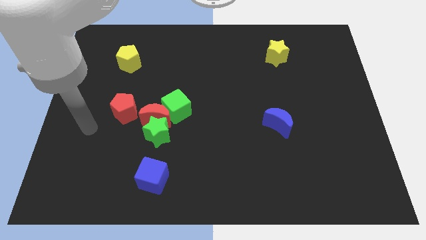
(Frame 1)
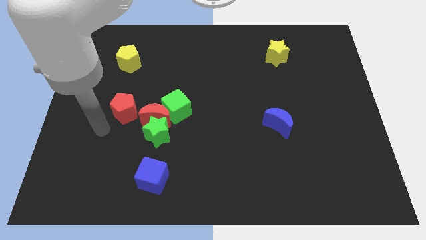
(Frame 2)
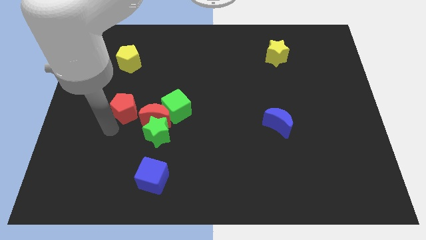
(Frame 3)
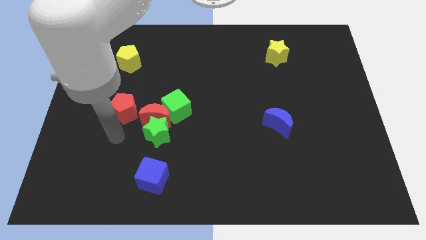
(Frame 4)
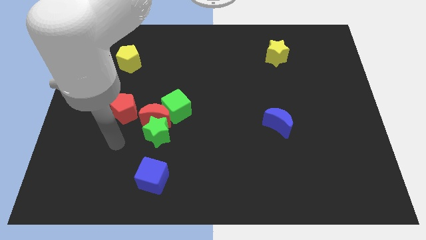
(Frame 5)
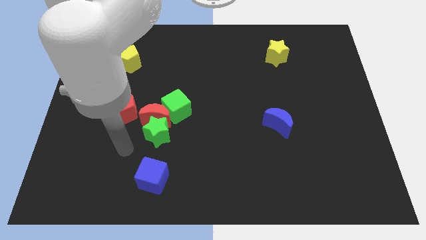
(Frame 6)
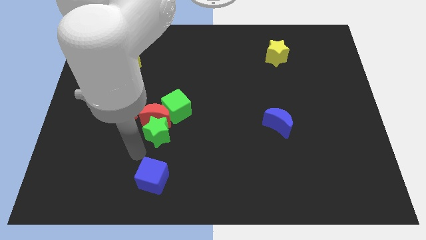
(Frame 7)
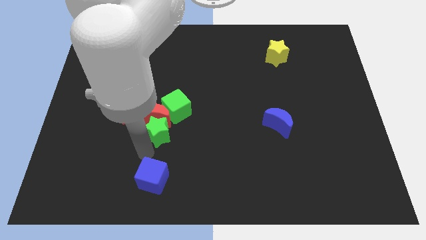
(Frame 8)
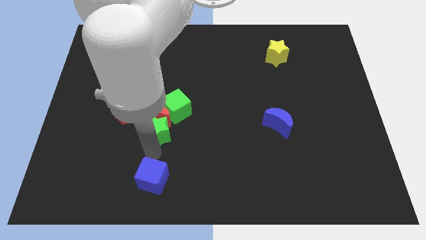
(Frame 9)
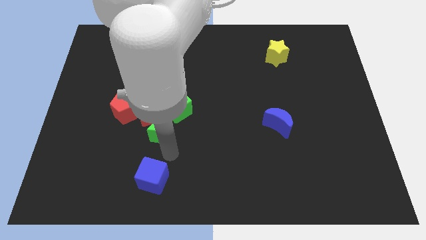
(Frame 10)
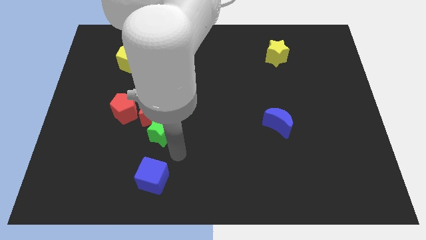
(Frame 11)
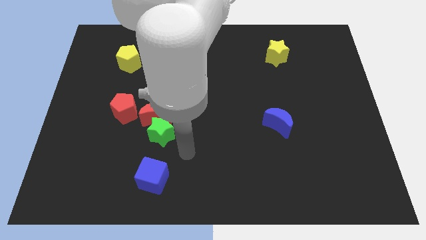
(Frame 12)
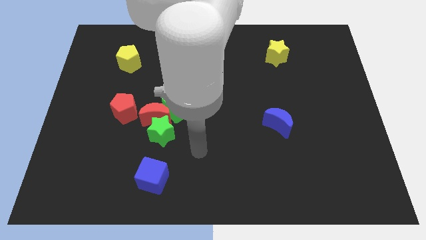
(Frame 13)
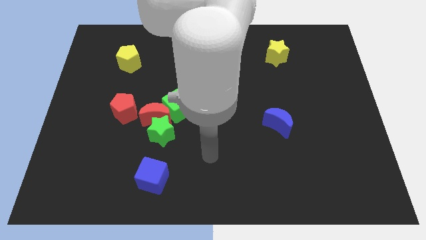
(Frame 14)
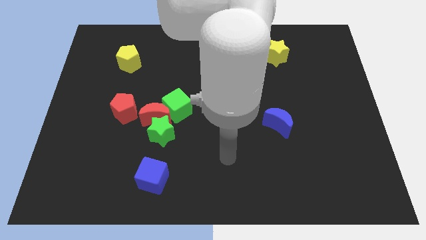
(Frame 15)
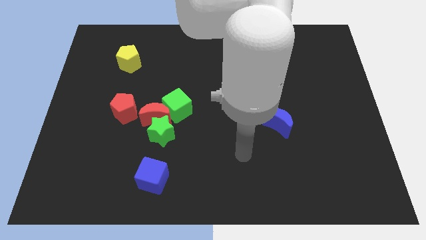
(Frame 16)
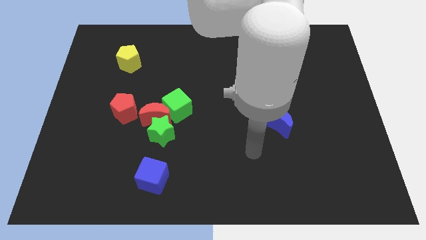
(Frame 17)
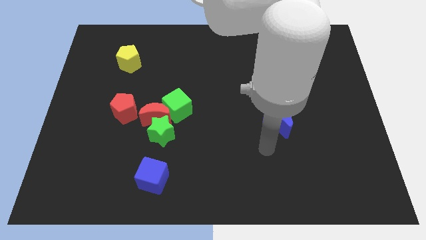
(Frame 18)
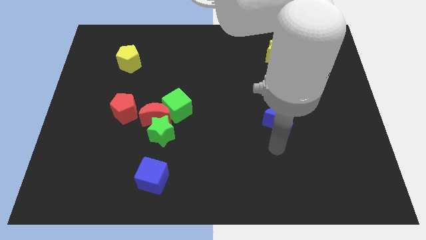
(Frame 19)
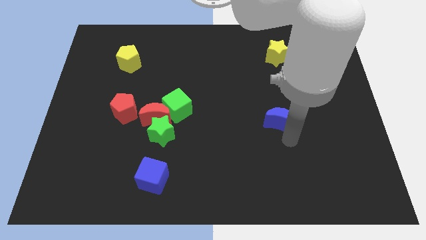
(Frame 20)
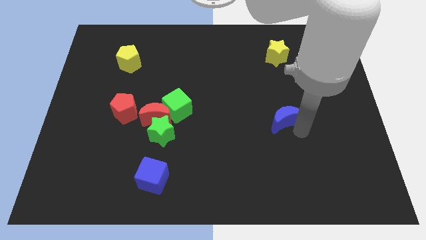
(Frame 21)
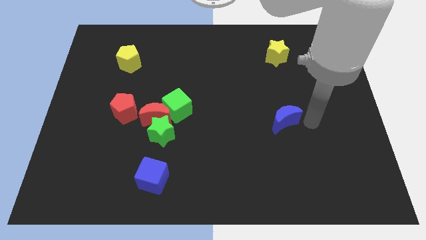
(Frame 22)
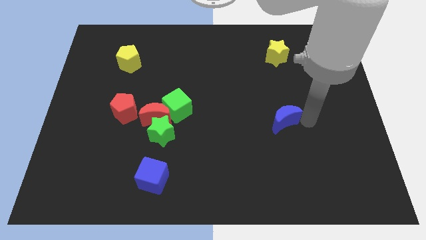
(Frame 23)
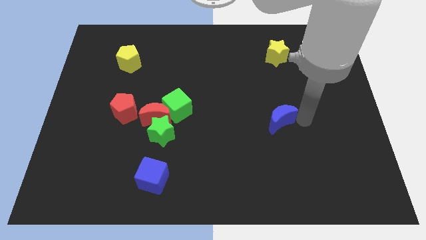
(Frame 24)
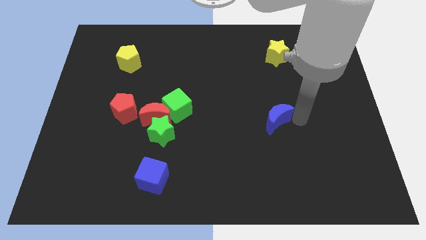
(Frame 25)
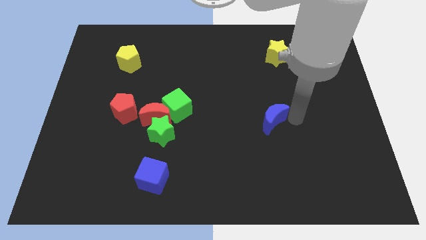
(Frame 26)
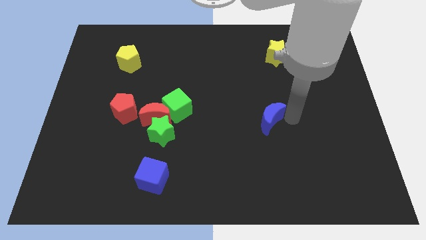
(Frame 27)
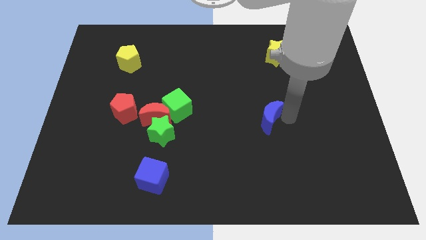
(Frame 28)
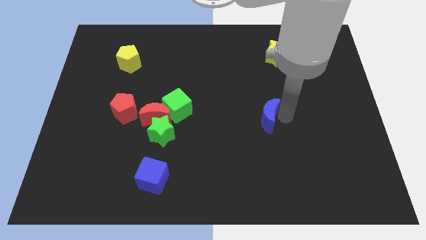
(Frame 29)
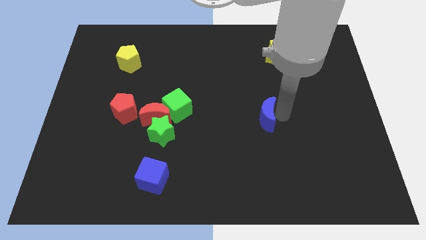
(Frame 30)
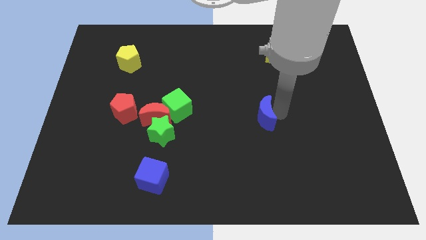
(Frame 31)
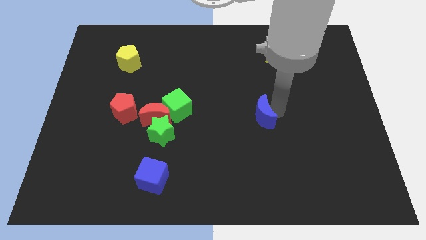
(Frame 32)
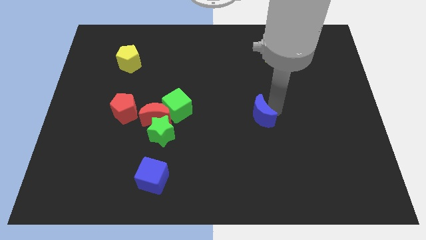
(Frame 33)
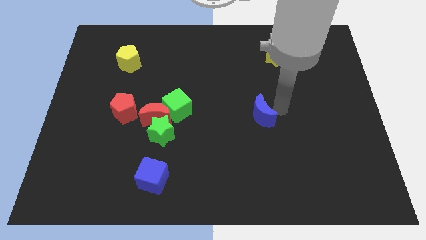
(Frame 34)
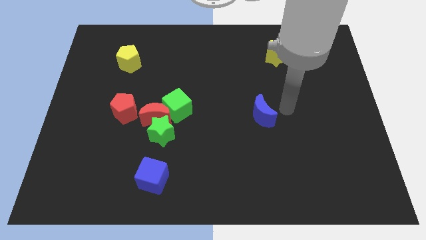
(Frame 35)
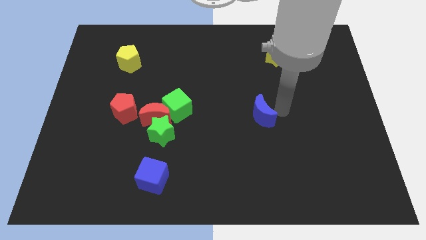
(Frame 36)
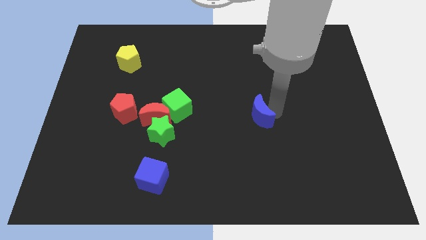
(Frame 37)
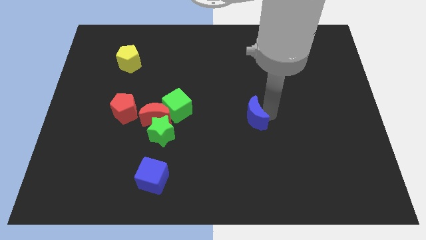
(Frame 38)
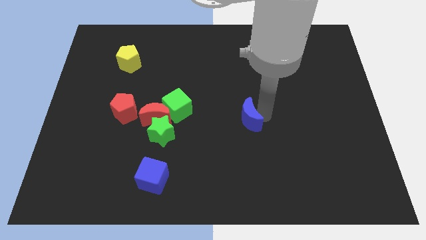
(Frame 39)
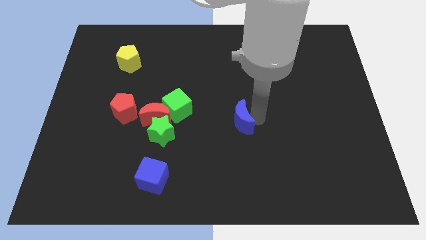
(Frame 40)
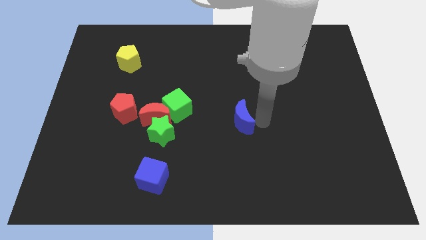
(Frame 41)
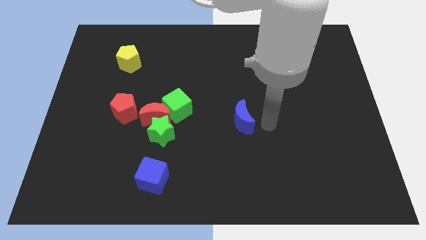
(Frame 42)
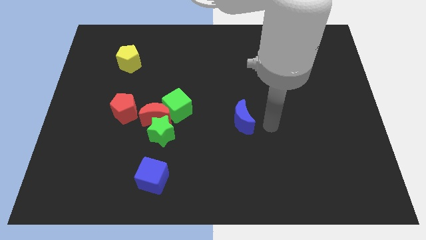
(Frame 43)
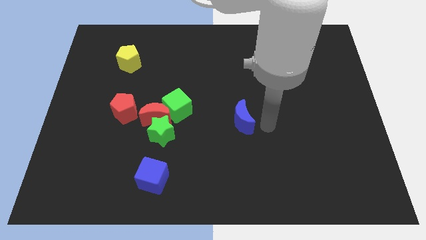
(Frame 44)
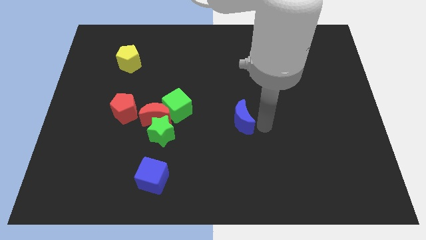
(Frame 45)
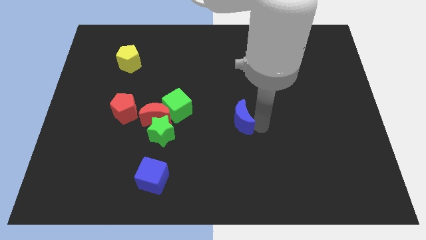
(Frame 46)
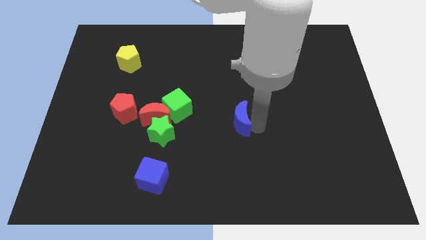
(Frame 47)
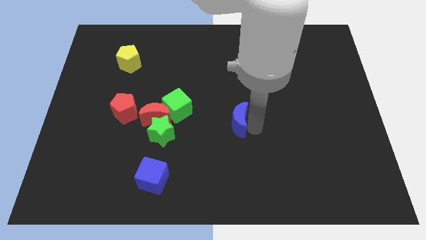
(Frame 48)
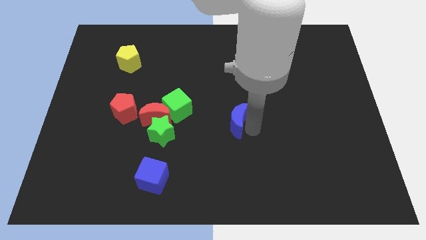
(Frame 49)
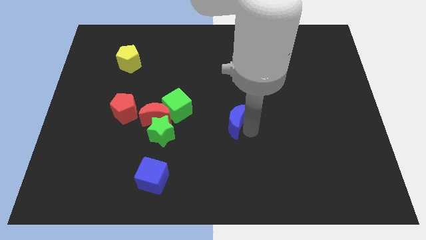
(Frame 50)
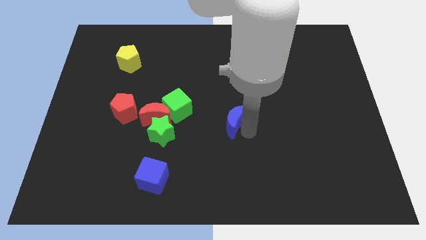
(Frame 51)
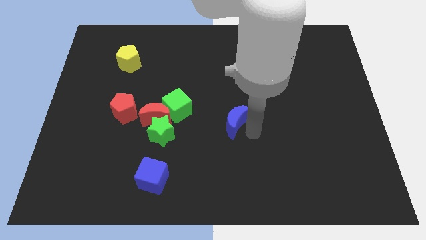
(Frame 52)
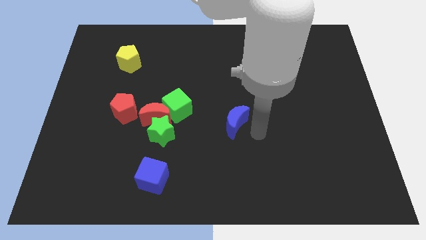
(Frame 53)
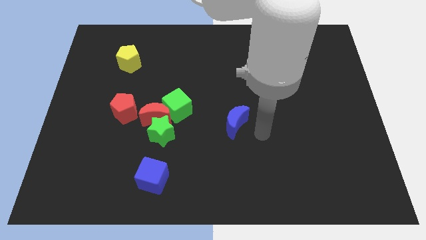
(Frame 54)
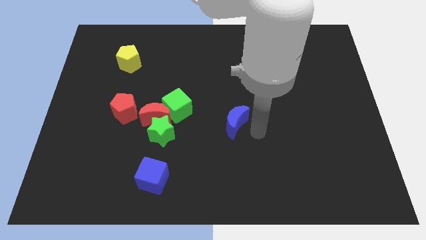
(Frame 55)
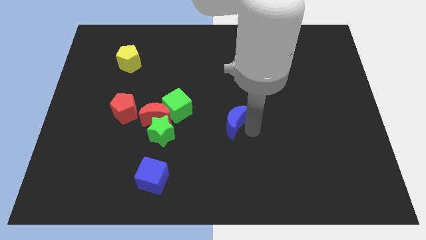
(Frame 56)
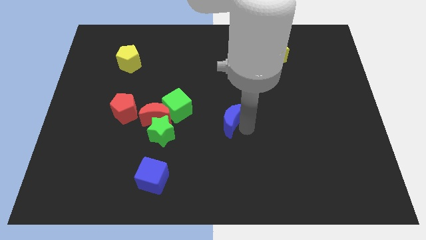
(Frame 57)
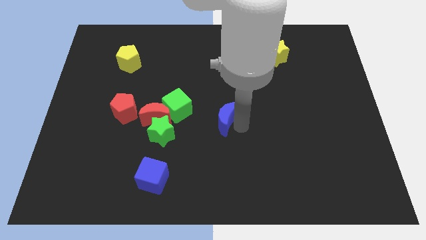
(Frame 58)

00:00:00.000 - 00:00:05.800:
move the blue moon to the right side of the red moon

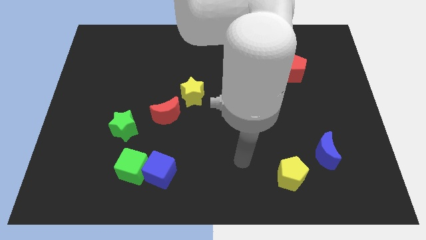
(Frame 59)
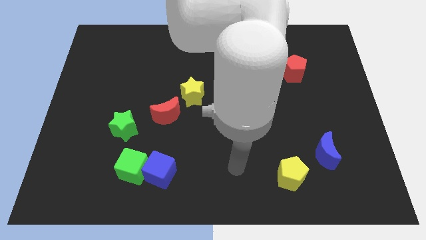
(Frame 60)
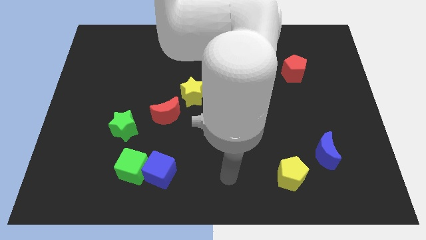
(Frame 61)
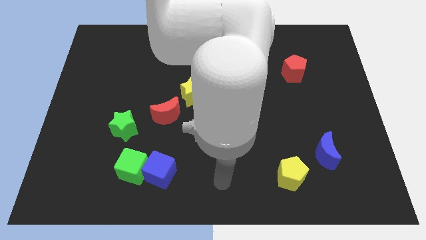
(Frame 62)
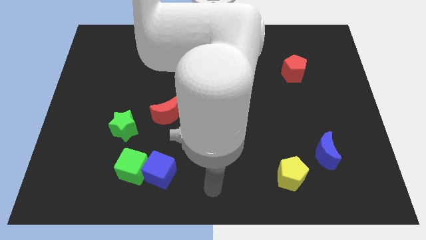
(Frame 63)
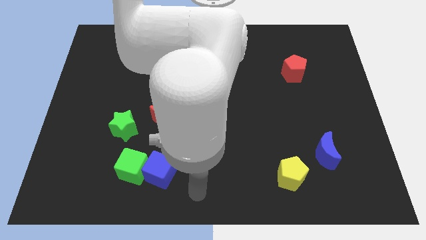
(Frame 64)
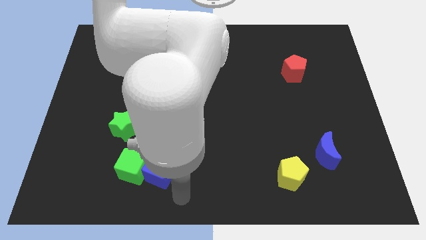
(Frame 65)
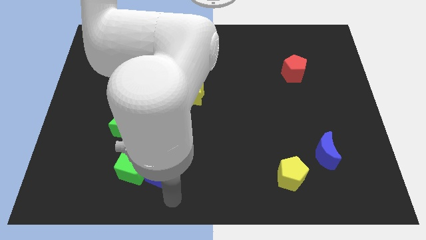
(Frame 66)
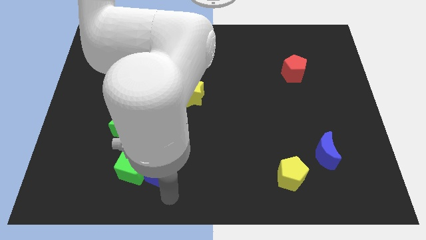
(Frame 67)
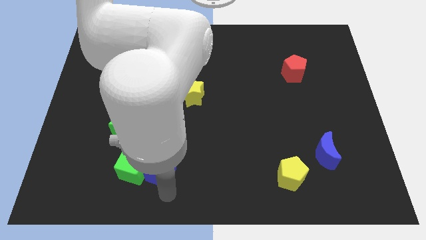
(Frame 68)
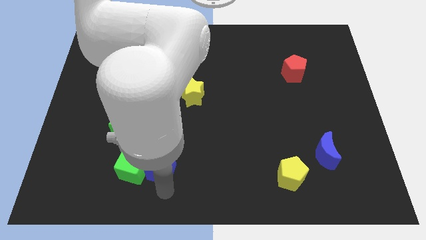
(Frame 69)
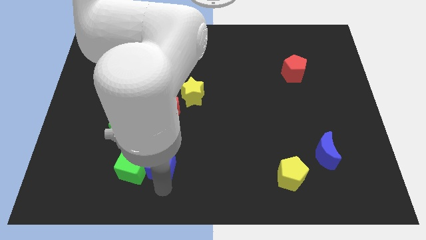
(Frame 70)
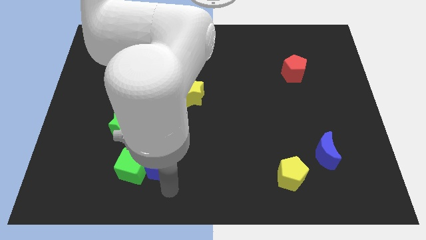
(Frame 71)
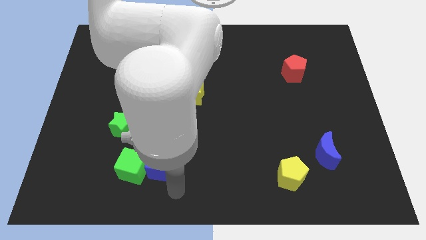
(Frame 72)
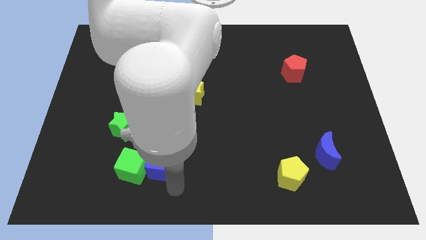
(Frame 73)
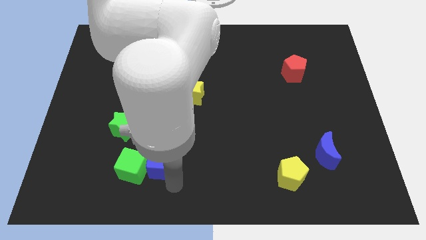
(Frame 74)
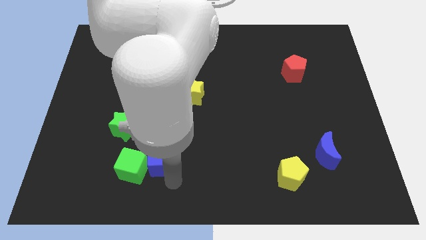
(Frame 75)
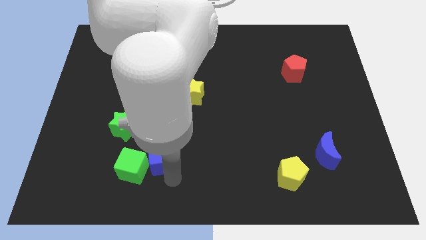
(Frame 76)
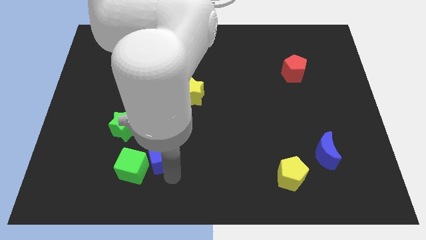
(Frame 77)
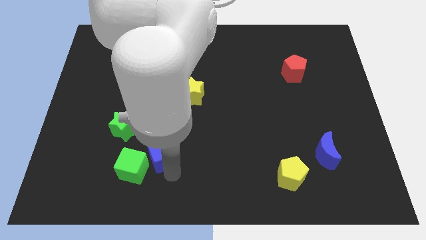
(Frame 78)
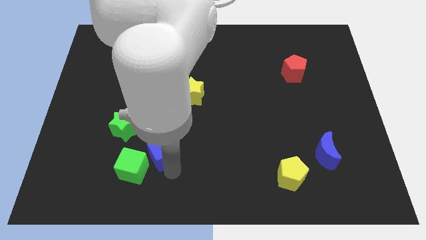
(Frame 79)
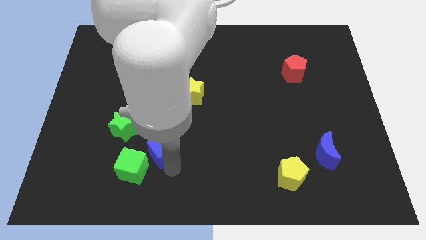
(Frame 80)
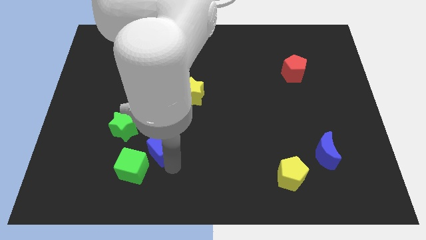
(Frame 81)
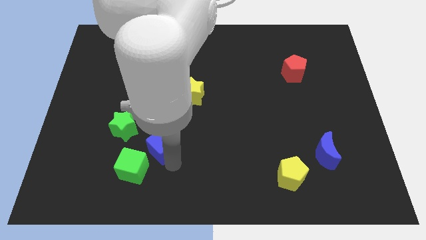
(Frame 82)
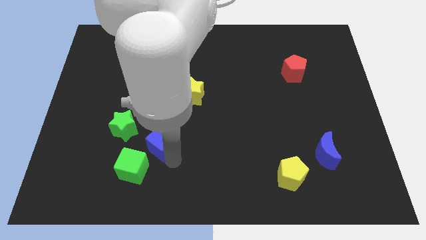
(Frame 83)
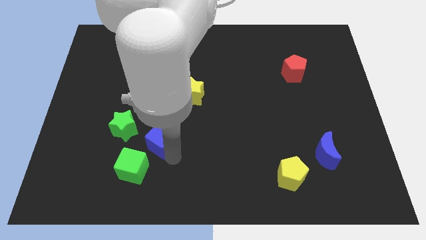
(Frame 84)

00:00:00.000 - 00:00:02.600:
push the blue cube to the bottom left side of the red moon
